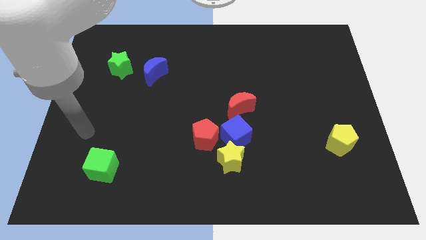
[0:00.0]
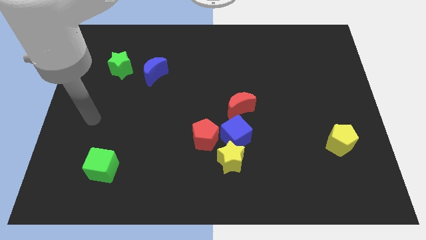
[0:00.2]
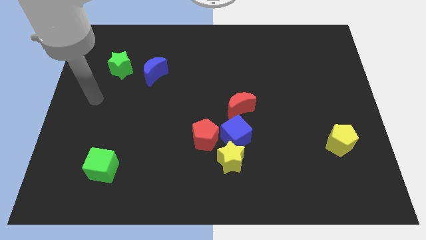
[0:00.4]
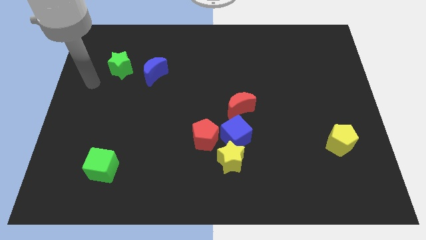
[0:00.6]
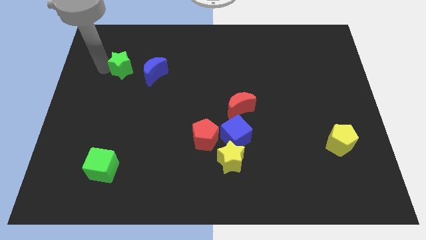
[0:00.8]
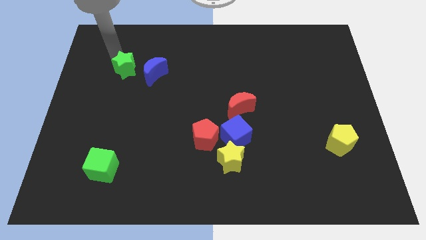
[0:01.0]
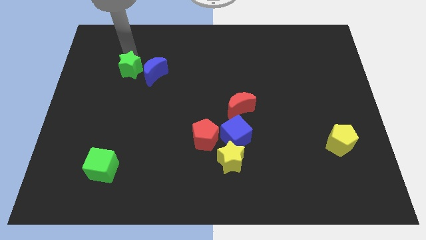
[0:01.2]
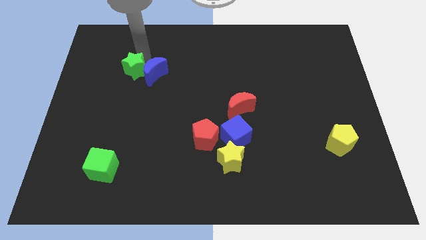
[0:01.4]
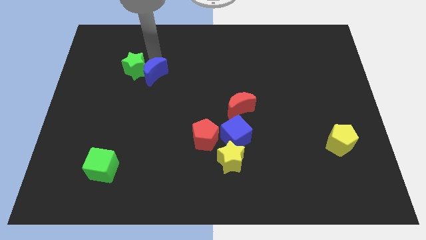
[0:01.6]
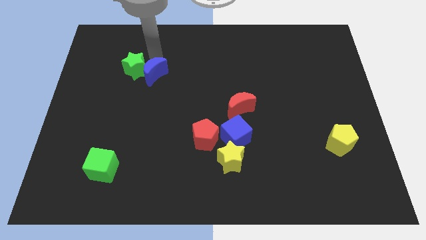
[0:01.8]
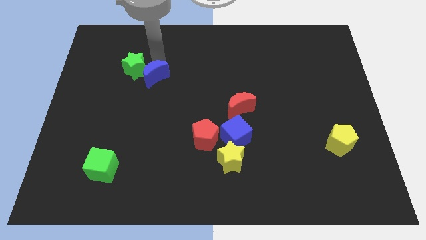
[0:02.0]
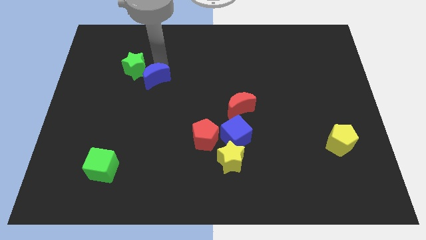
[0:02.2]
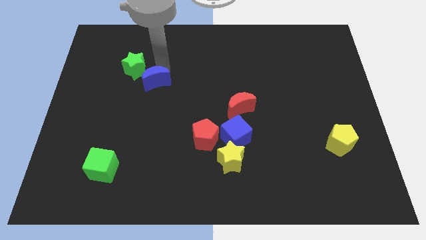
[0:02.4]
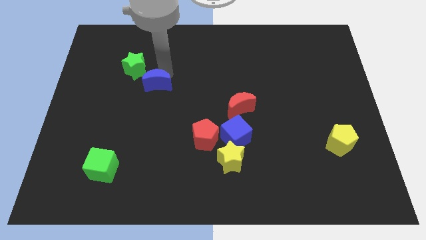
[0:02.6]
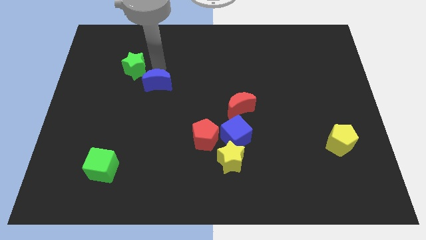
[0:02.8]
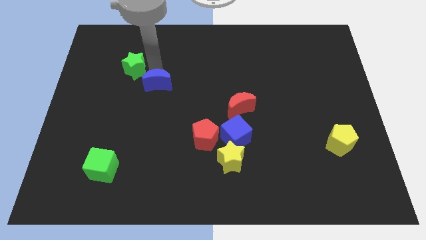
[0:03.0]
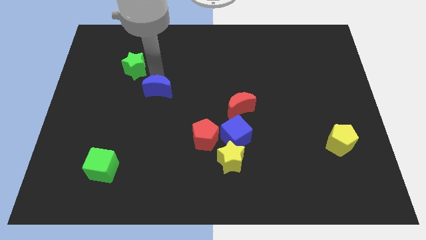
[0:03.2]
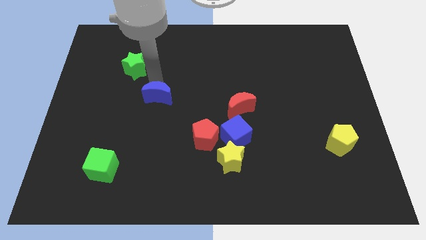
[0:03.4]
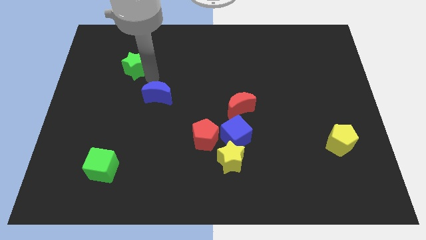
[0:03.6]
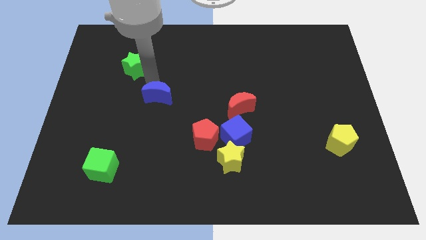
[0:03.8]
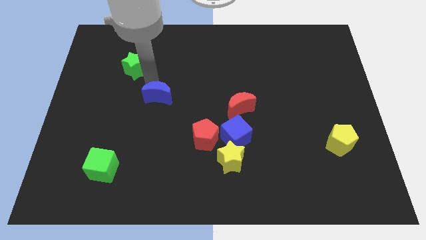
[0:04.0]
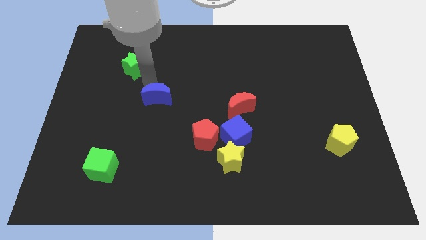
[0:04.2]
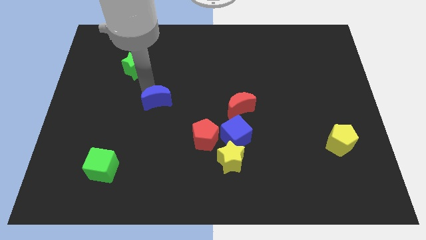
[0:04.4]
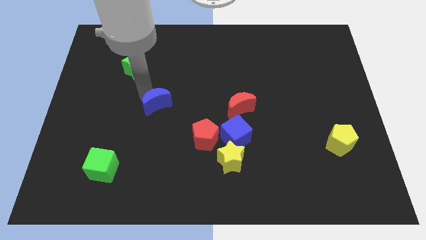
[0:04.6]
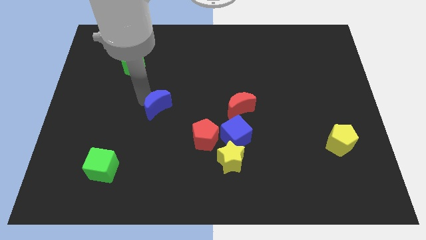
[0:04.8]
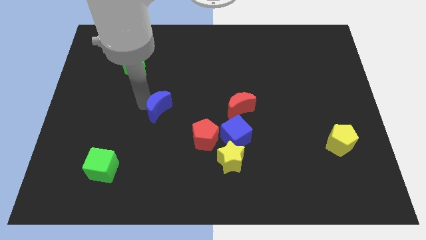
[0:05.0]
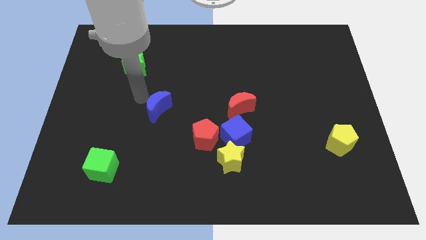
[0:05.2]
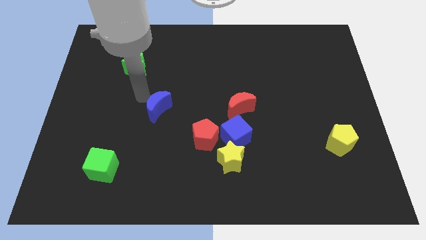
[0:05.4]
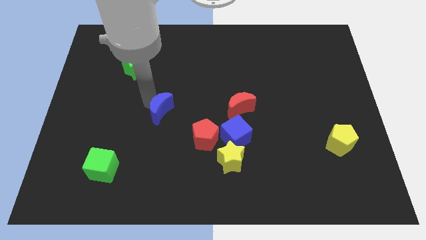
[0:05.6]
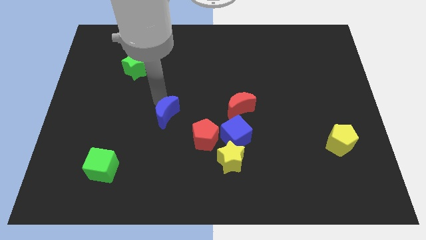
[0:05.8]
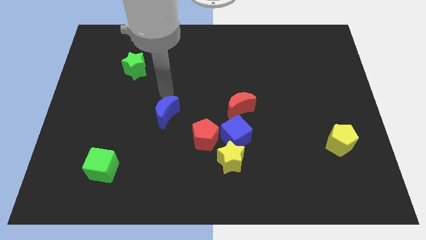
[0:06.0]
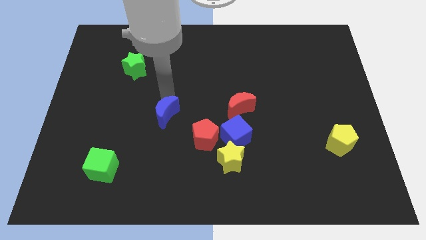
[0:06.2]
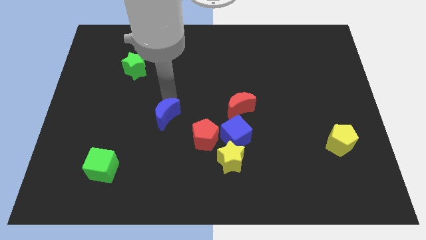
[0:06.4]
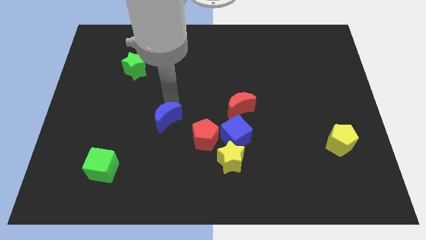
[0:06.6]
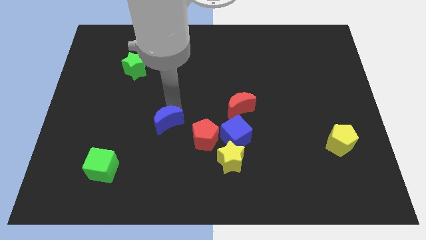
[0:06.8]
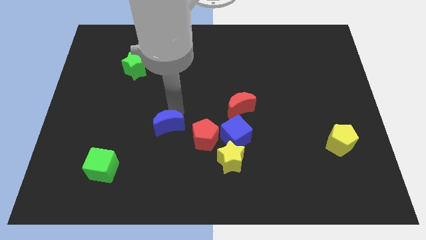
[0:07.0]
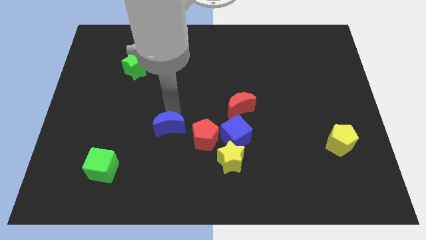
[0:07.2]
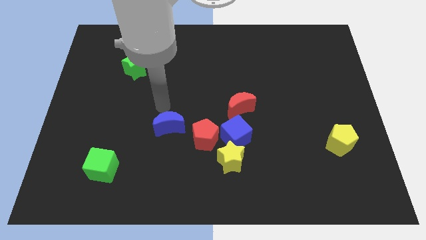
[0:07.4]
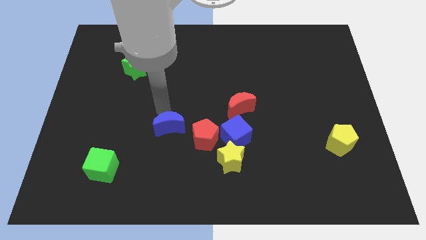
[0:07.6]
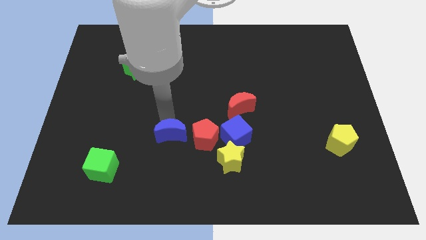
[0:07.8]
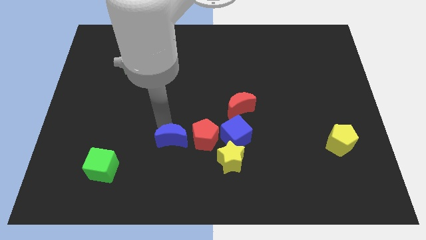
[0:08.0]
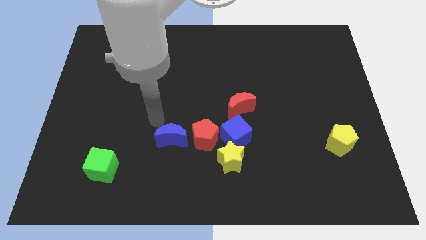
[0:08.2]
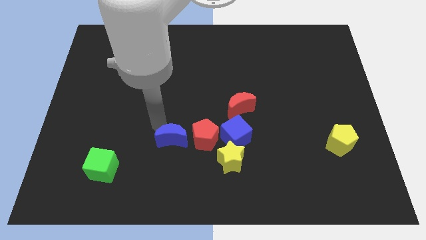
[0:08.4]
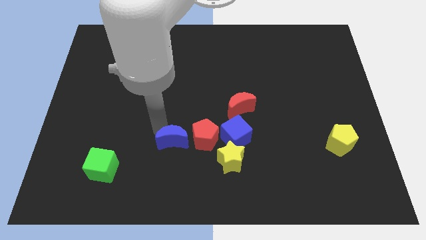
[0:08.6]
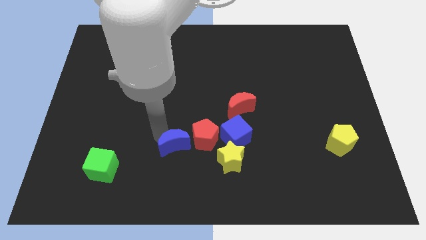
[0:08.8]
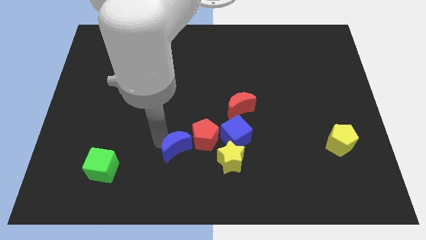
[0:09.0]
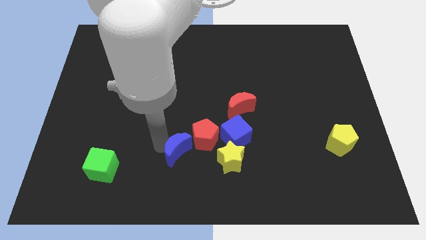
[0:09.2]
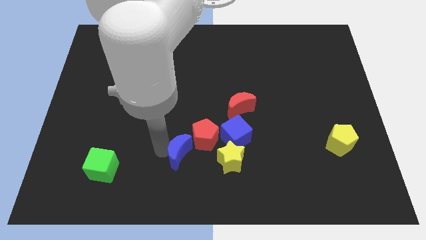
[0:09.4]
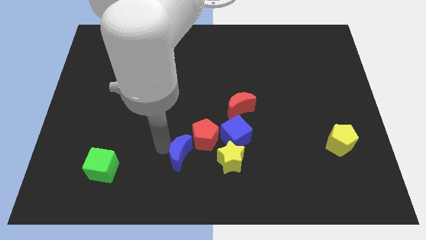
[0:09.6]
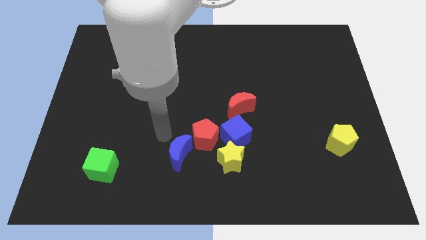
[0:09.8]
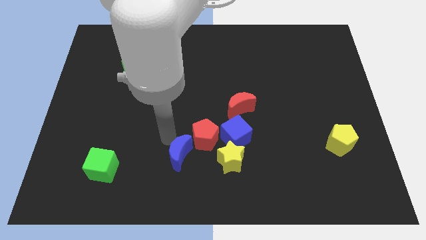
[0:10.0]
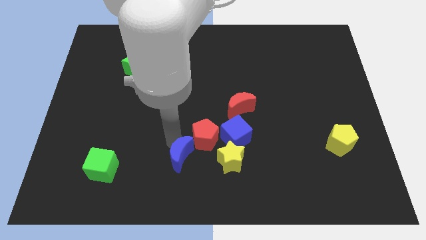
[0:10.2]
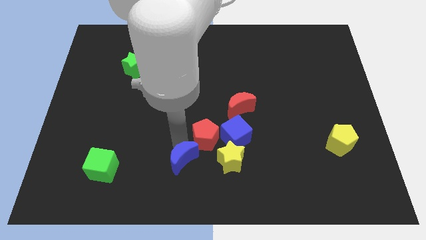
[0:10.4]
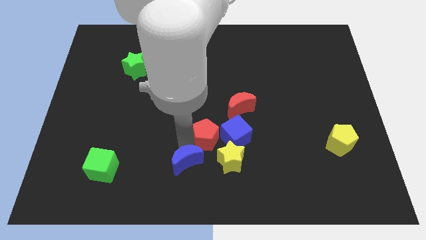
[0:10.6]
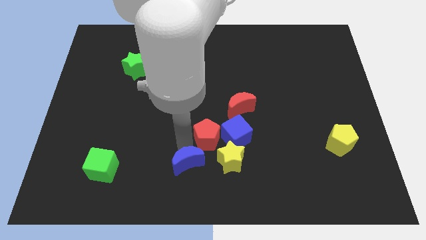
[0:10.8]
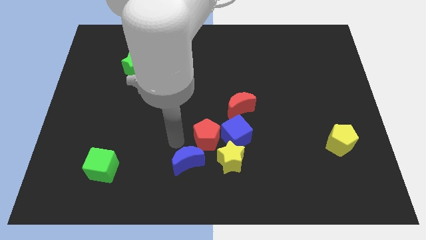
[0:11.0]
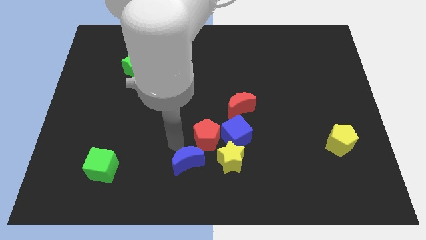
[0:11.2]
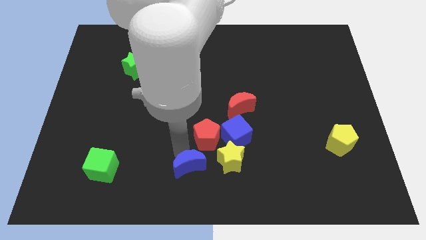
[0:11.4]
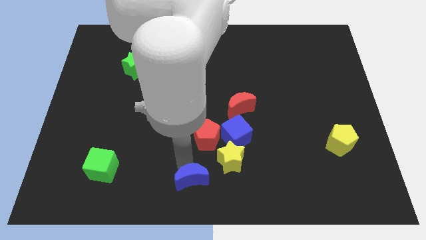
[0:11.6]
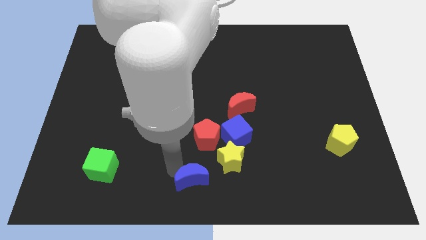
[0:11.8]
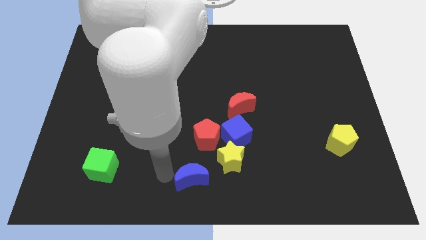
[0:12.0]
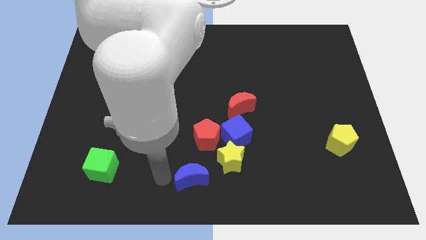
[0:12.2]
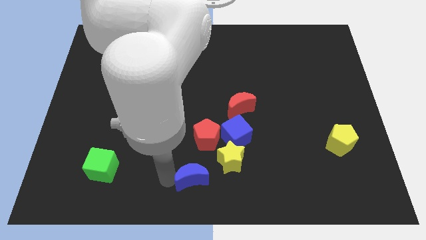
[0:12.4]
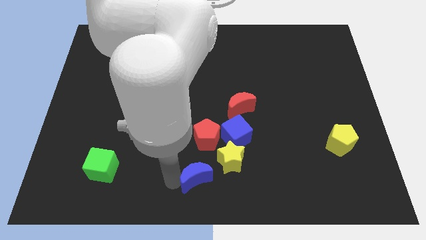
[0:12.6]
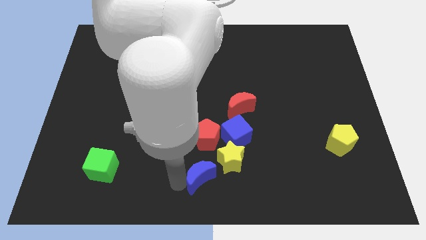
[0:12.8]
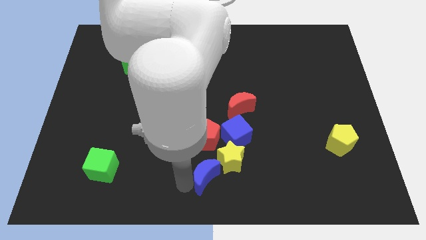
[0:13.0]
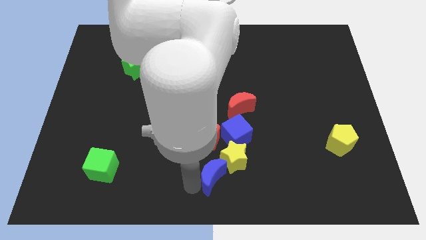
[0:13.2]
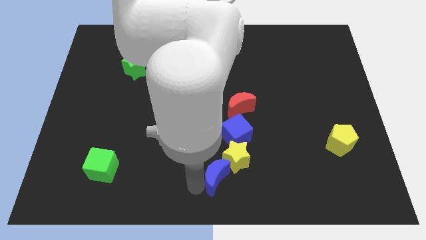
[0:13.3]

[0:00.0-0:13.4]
slide the blue moon below the blue cube

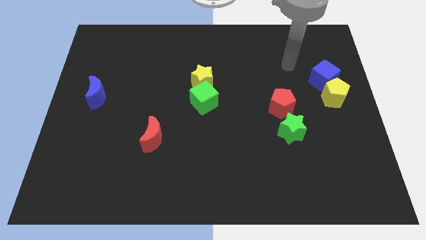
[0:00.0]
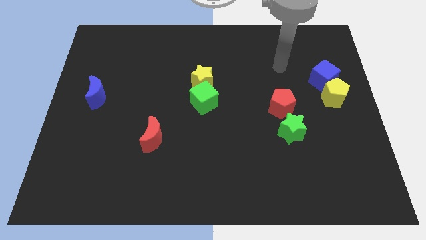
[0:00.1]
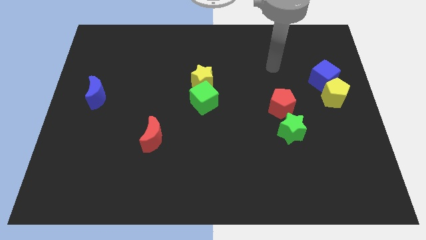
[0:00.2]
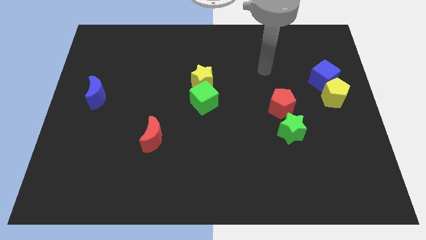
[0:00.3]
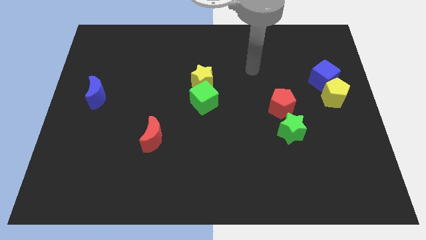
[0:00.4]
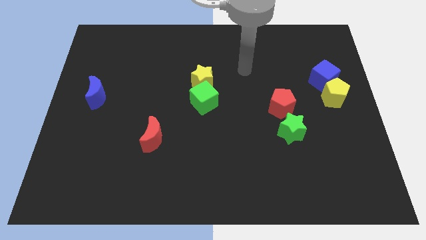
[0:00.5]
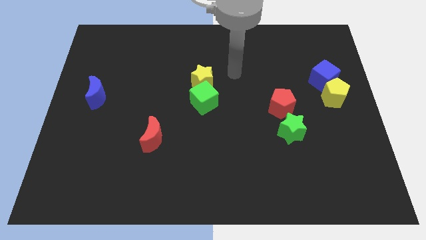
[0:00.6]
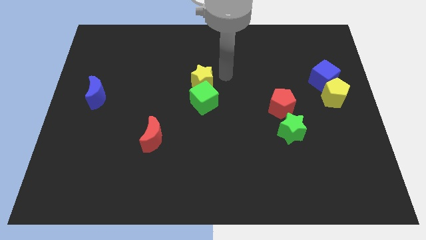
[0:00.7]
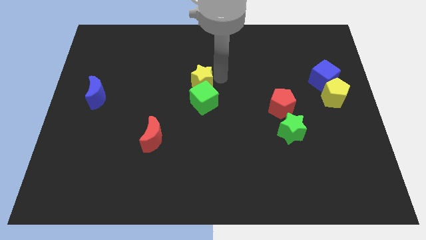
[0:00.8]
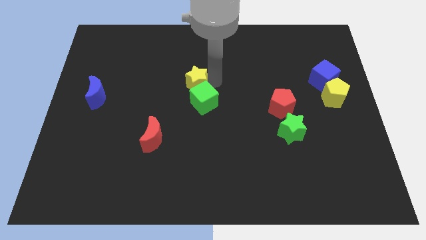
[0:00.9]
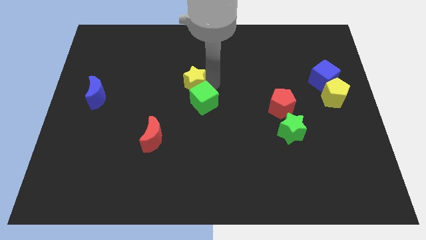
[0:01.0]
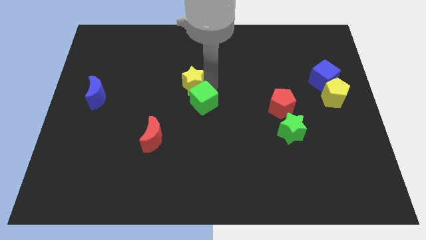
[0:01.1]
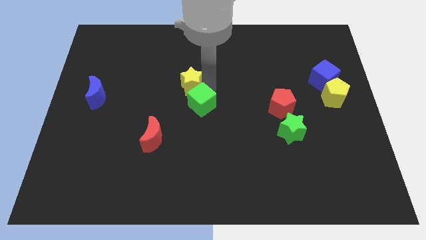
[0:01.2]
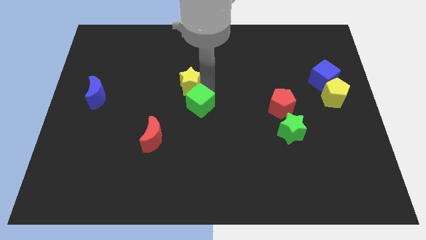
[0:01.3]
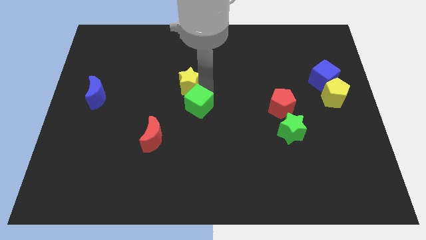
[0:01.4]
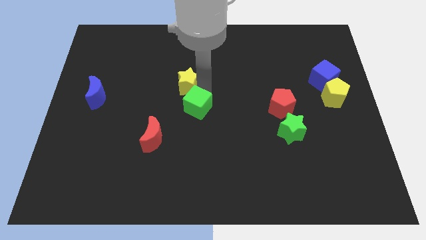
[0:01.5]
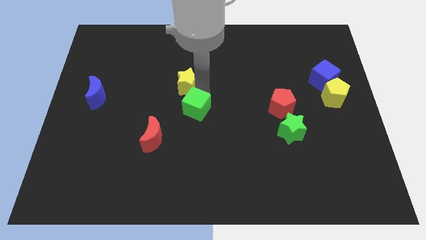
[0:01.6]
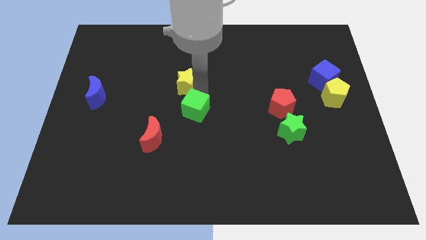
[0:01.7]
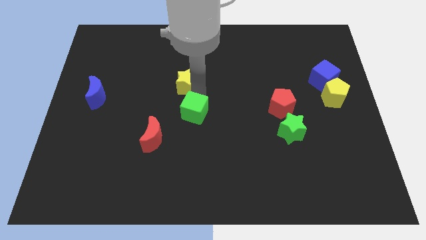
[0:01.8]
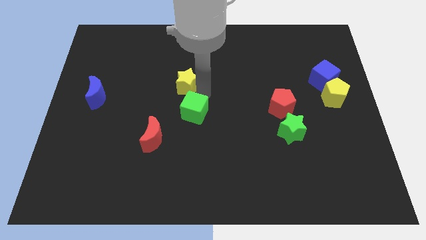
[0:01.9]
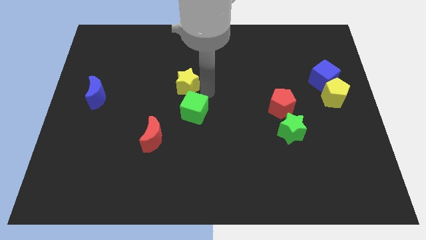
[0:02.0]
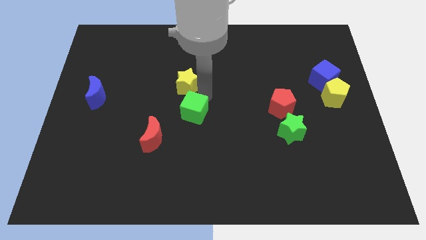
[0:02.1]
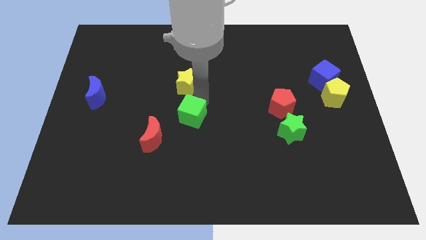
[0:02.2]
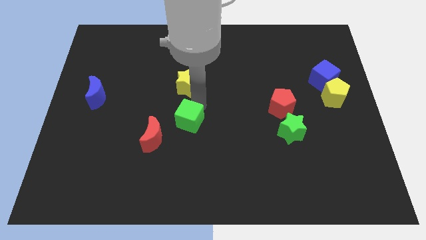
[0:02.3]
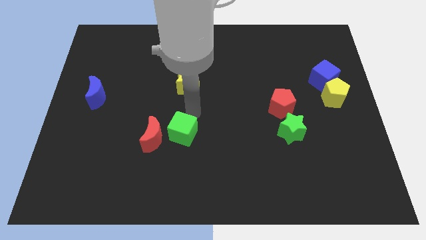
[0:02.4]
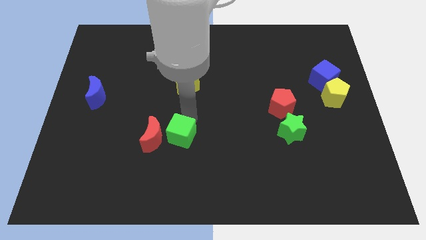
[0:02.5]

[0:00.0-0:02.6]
put the green cube diagonally down and to the right of the red moon
